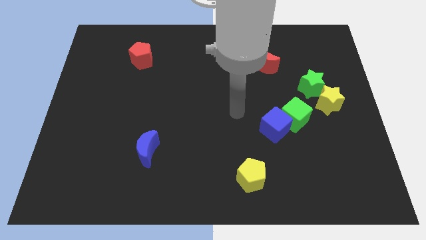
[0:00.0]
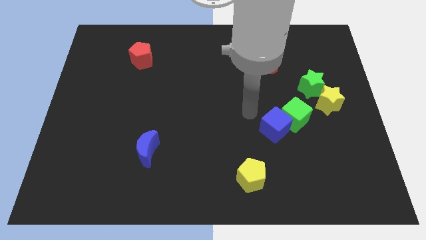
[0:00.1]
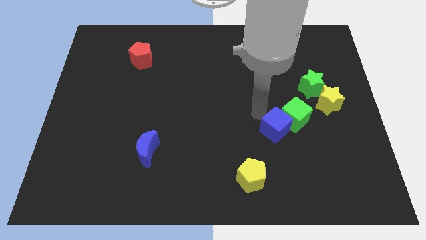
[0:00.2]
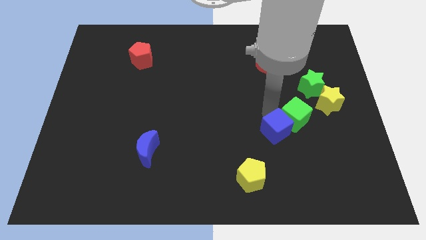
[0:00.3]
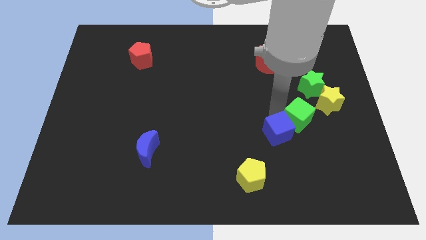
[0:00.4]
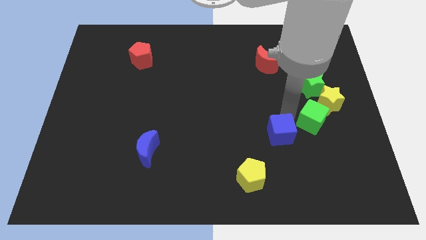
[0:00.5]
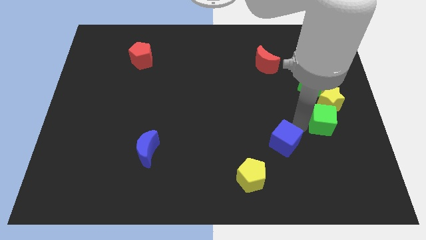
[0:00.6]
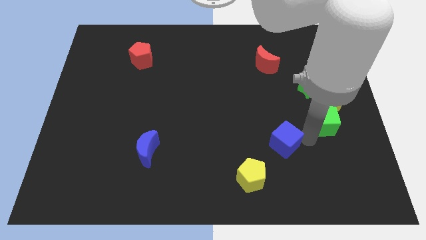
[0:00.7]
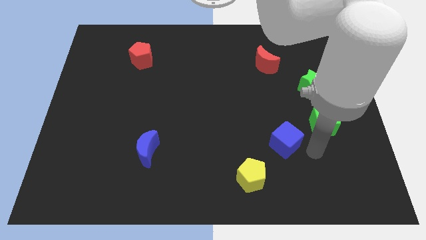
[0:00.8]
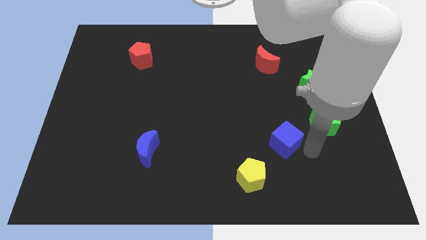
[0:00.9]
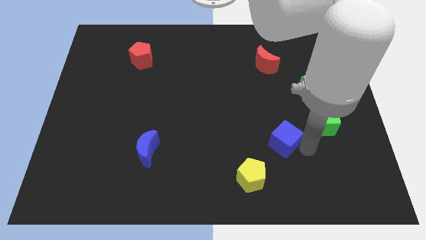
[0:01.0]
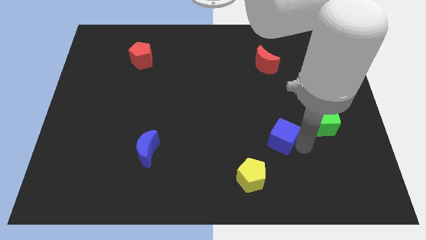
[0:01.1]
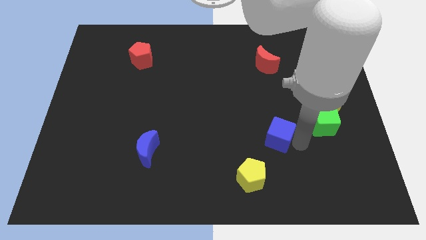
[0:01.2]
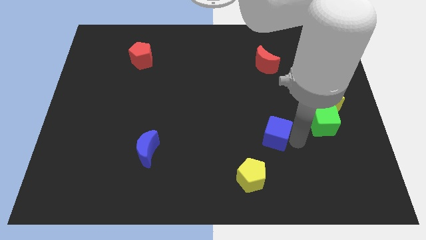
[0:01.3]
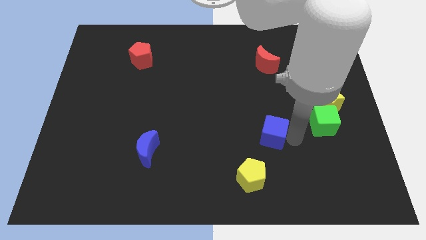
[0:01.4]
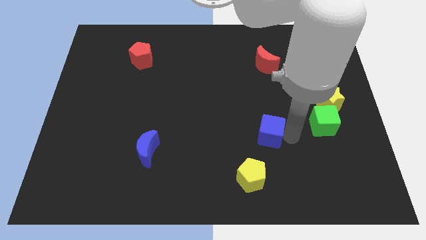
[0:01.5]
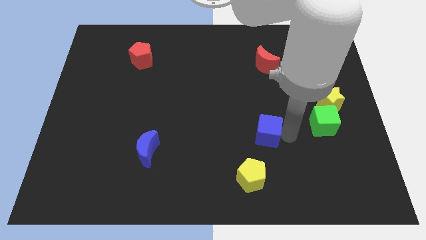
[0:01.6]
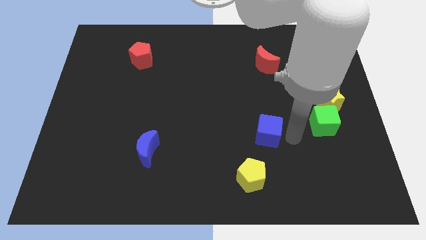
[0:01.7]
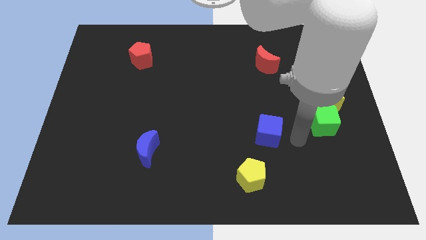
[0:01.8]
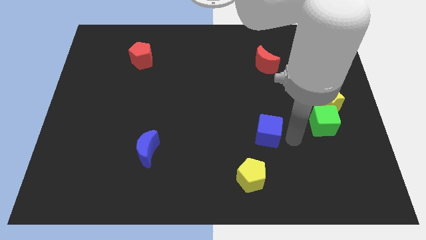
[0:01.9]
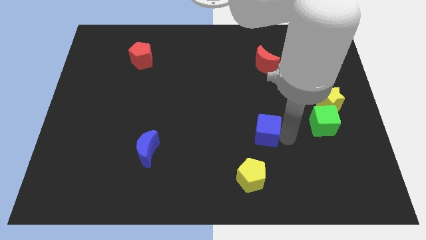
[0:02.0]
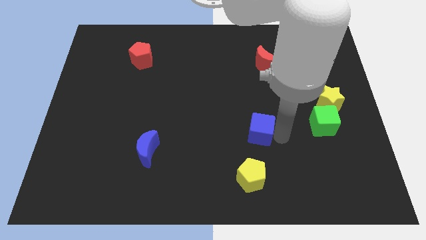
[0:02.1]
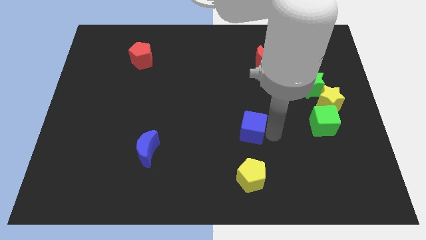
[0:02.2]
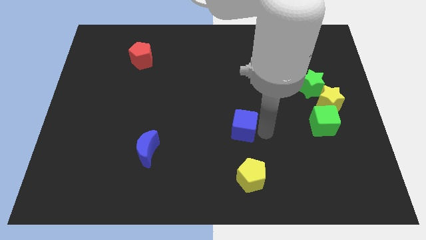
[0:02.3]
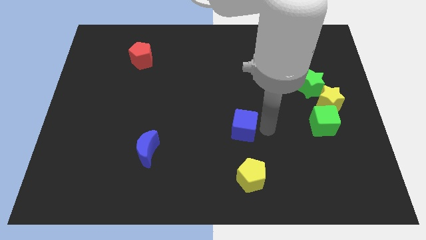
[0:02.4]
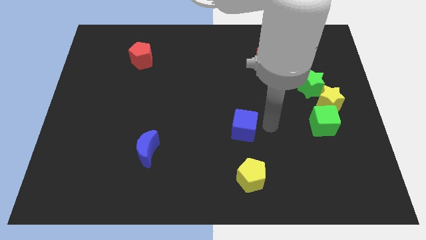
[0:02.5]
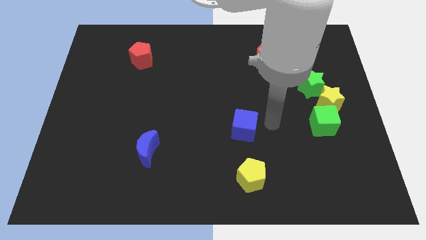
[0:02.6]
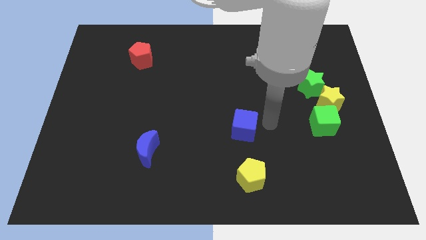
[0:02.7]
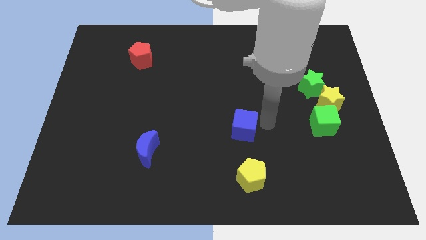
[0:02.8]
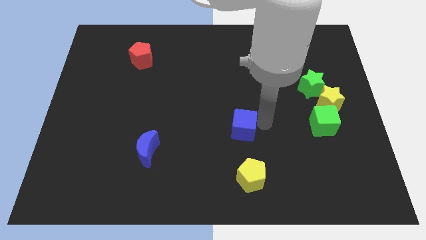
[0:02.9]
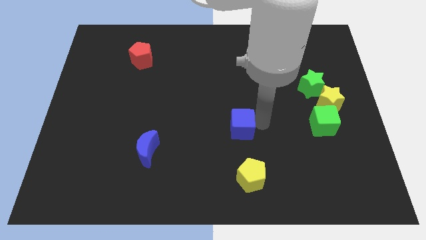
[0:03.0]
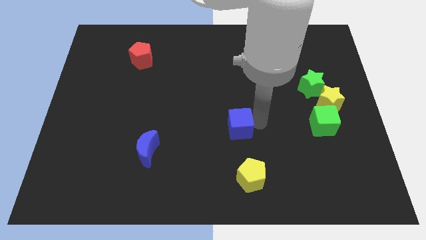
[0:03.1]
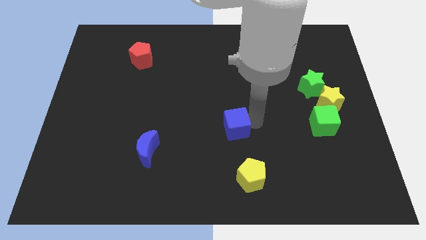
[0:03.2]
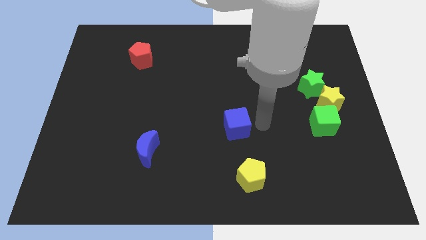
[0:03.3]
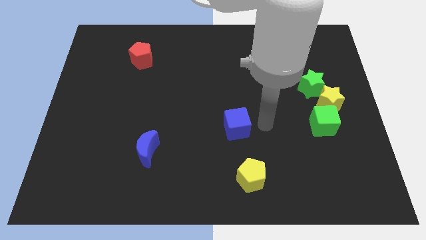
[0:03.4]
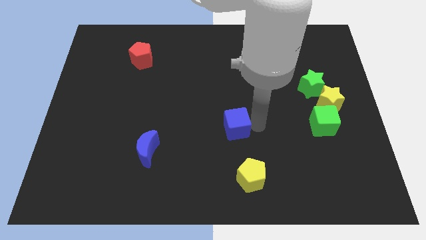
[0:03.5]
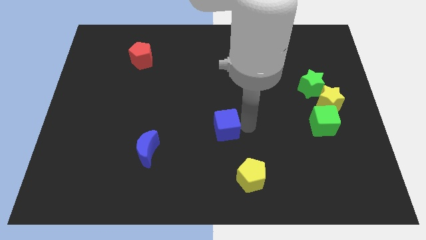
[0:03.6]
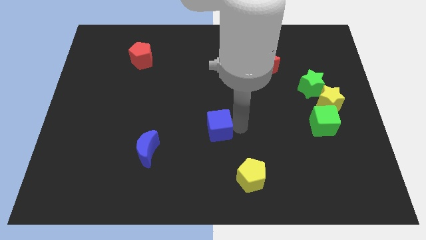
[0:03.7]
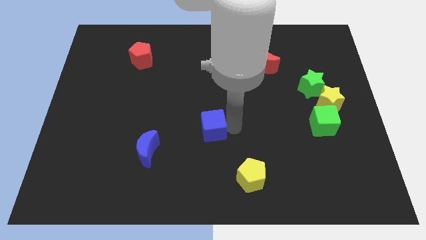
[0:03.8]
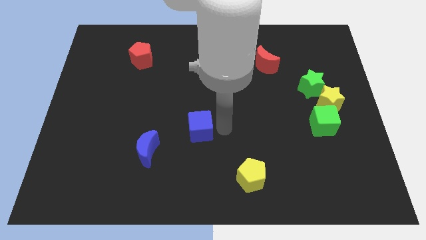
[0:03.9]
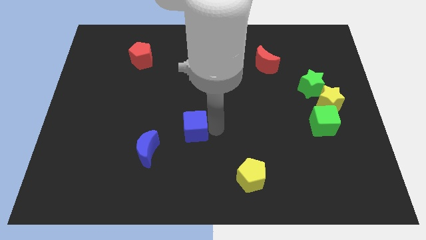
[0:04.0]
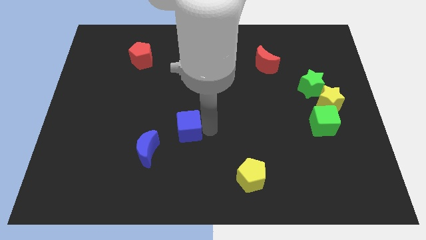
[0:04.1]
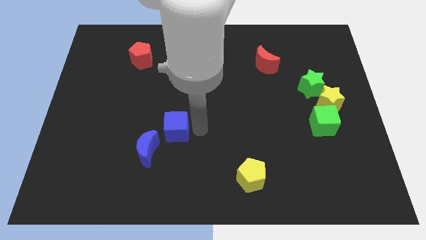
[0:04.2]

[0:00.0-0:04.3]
push the blue cube left

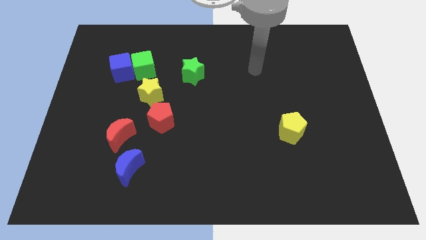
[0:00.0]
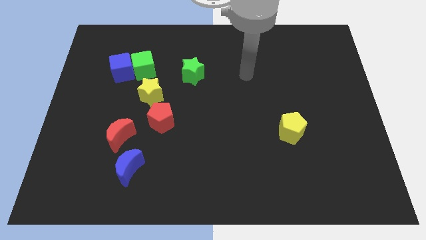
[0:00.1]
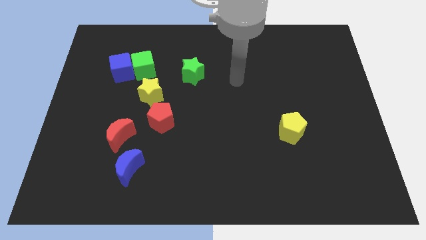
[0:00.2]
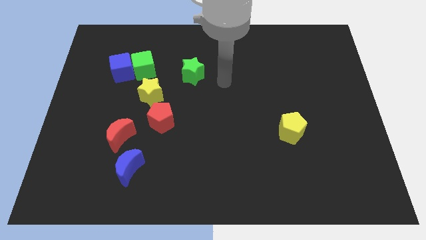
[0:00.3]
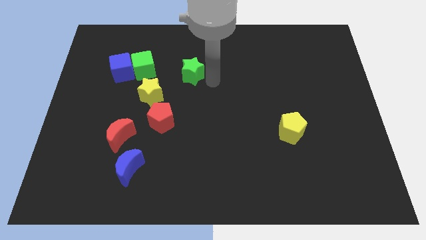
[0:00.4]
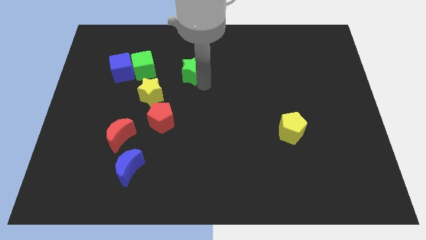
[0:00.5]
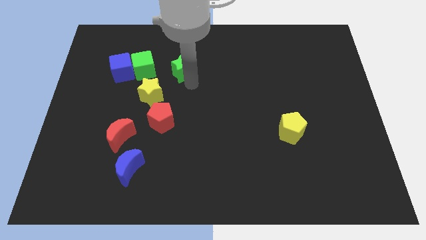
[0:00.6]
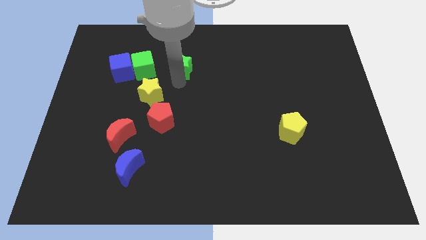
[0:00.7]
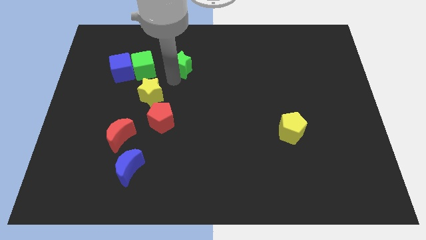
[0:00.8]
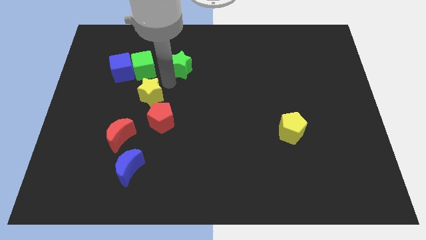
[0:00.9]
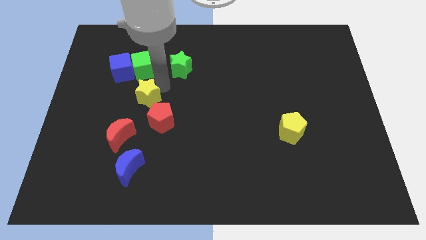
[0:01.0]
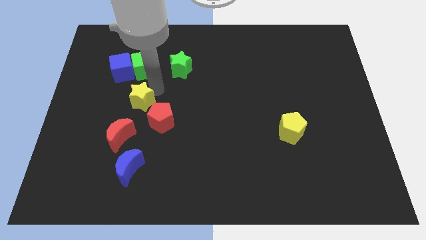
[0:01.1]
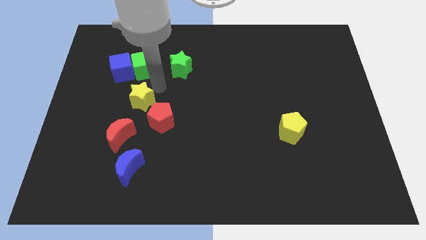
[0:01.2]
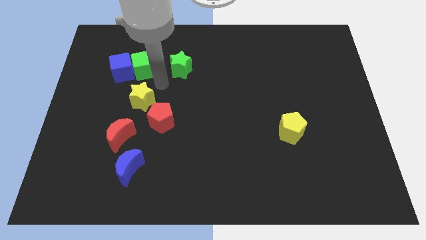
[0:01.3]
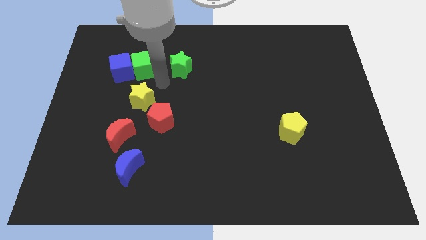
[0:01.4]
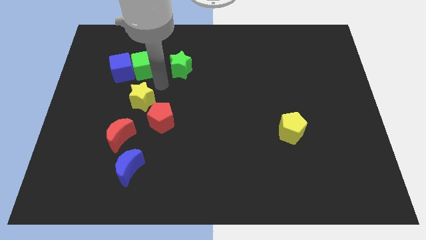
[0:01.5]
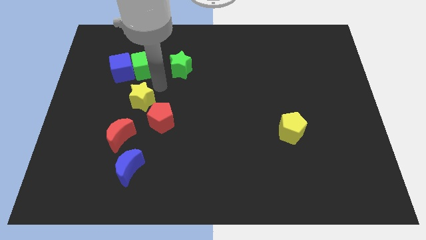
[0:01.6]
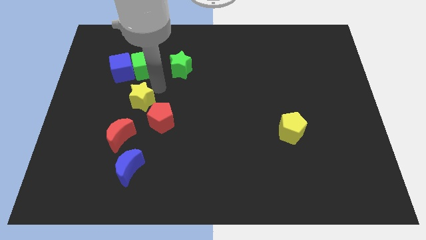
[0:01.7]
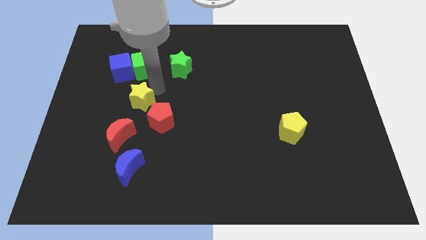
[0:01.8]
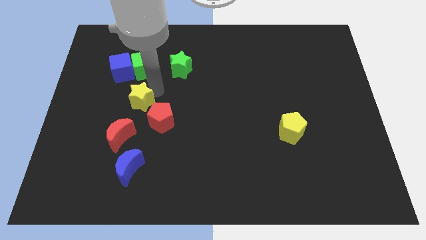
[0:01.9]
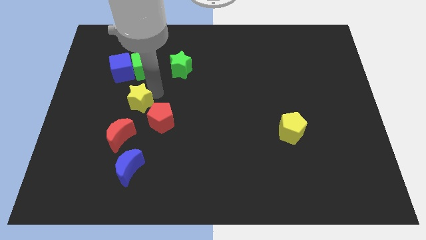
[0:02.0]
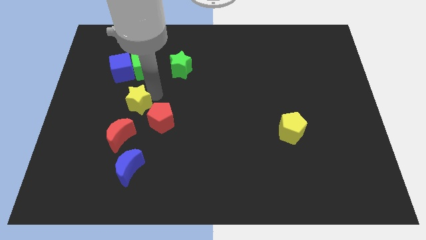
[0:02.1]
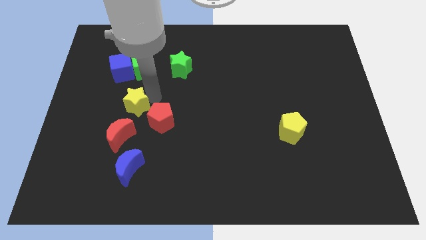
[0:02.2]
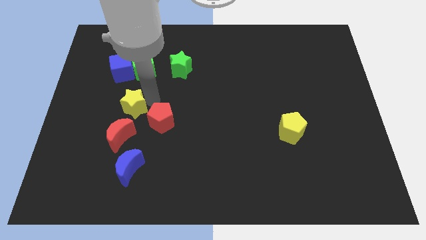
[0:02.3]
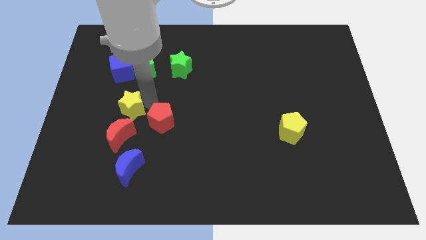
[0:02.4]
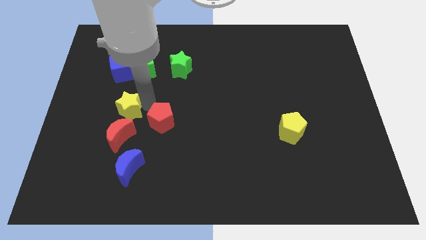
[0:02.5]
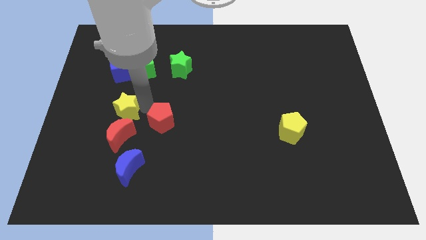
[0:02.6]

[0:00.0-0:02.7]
slightly slide the yellow star downwards and left

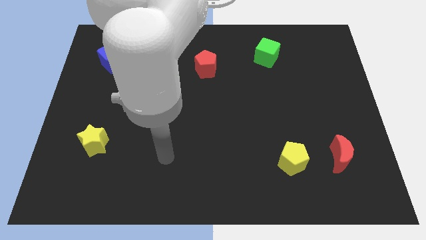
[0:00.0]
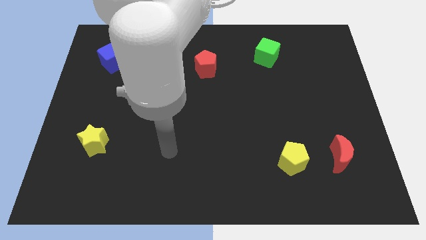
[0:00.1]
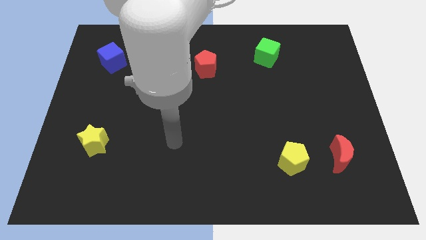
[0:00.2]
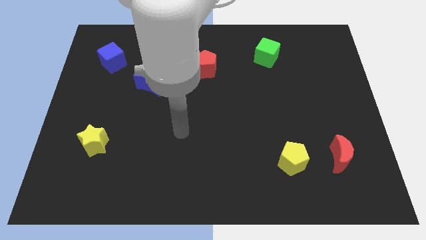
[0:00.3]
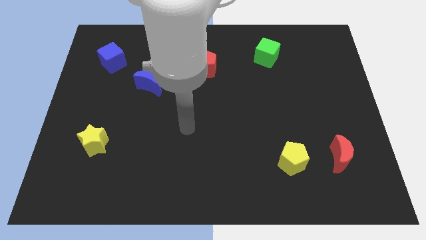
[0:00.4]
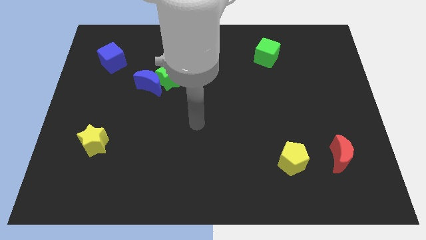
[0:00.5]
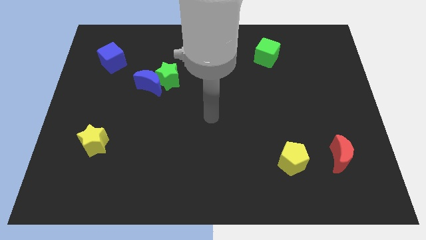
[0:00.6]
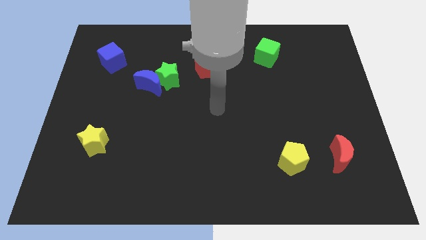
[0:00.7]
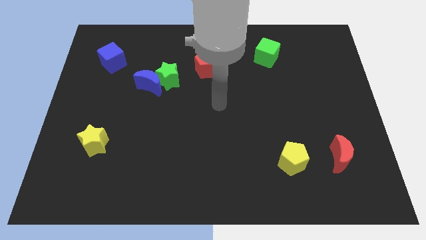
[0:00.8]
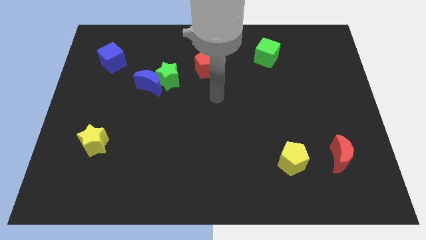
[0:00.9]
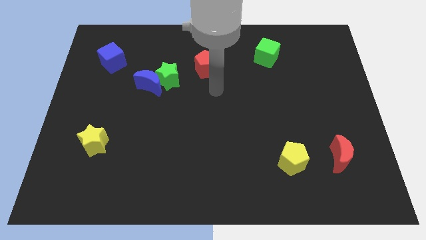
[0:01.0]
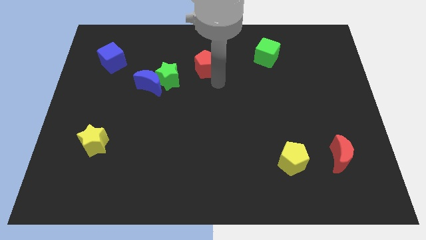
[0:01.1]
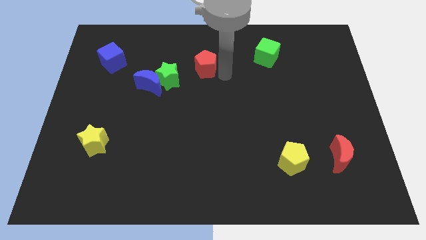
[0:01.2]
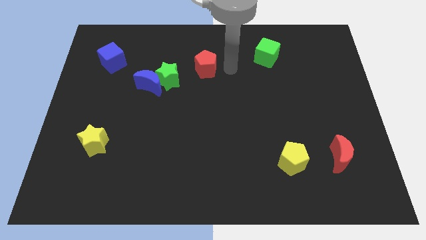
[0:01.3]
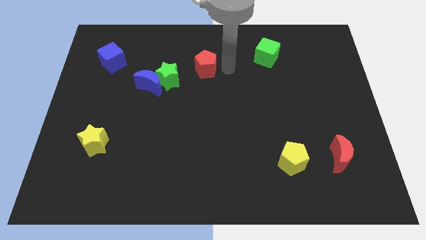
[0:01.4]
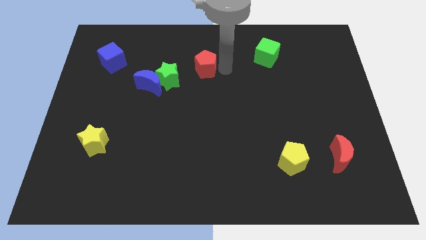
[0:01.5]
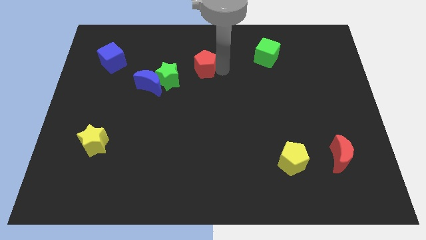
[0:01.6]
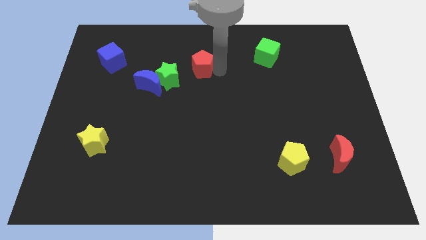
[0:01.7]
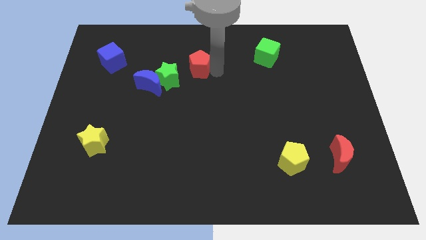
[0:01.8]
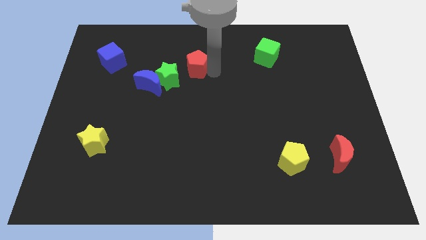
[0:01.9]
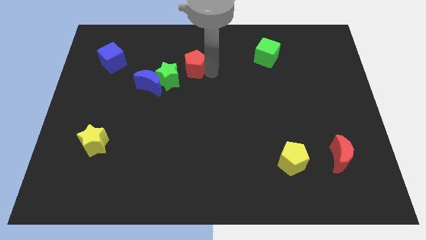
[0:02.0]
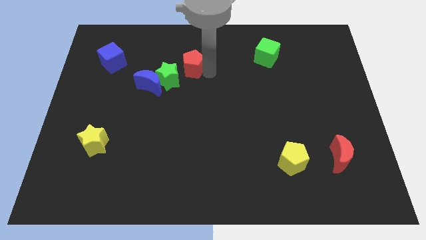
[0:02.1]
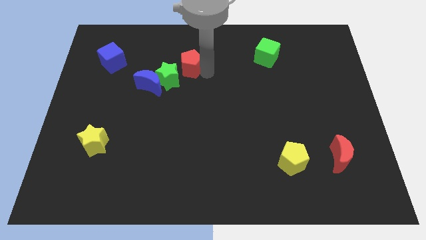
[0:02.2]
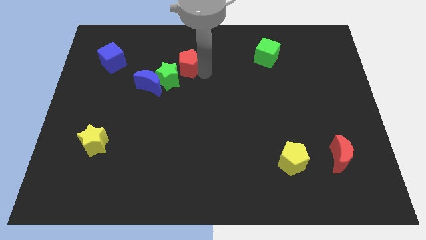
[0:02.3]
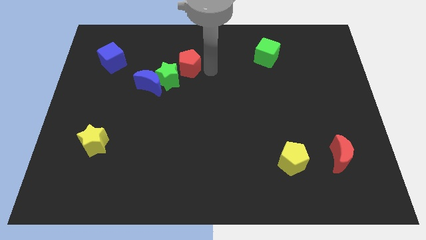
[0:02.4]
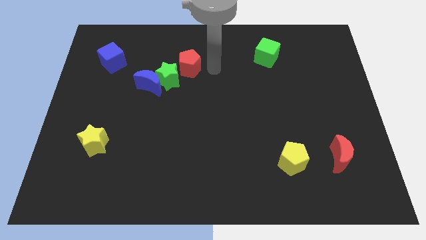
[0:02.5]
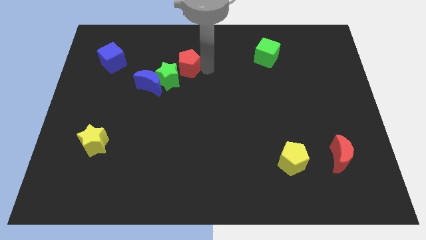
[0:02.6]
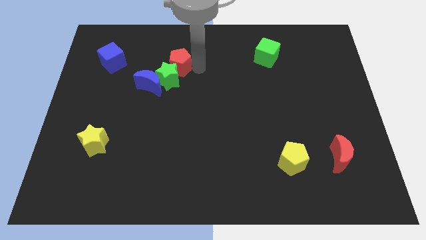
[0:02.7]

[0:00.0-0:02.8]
slide the red pentagon to the left a little bit
